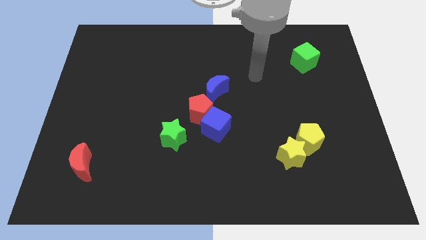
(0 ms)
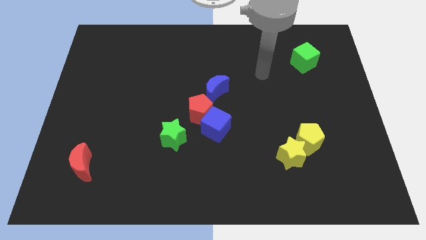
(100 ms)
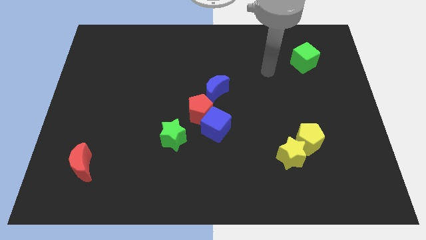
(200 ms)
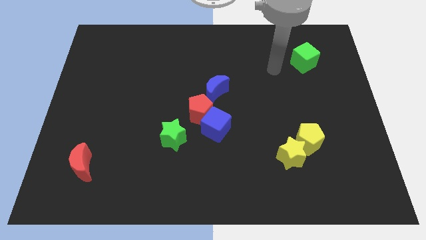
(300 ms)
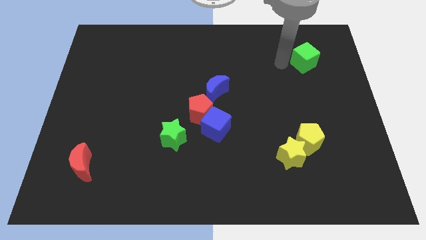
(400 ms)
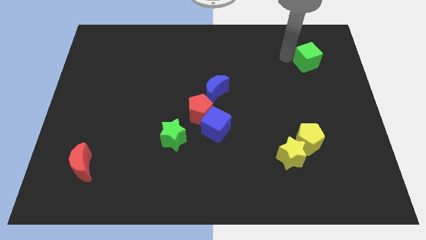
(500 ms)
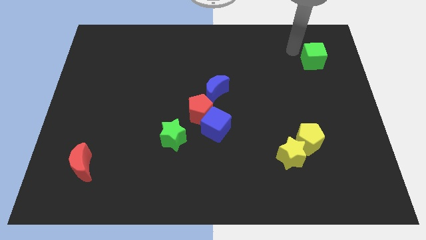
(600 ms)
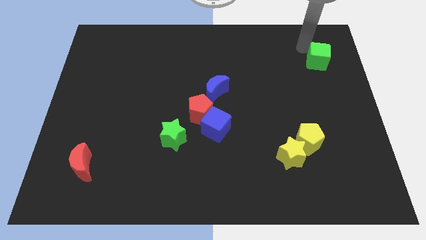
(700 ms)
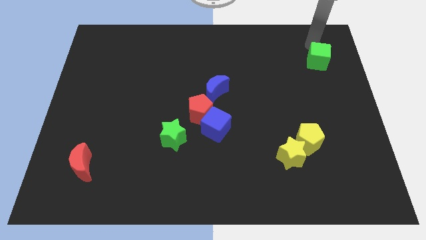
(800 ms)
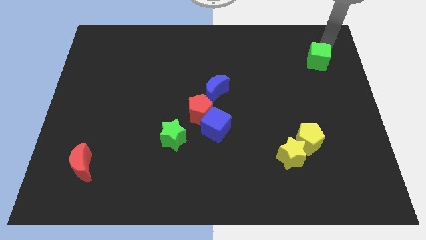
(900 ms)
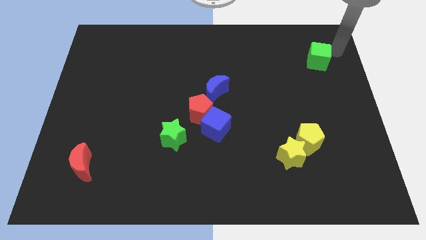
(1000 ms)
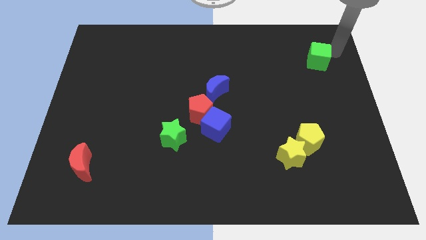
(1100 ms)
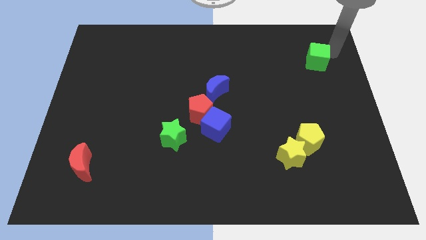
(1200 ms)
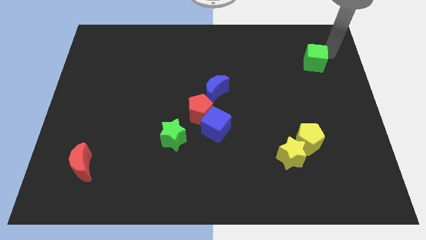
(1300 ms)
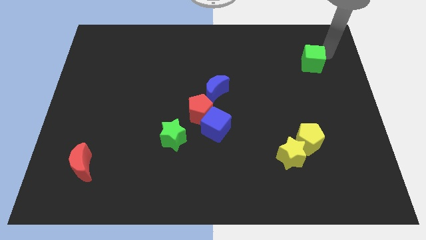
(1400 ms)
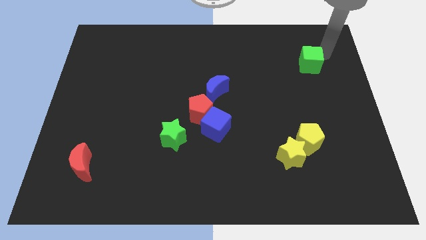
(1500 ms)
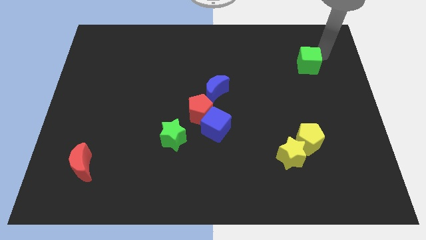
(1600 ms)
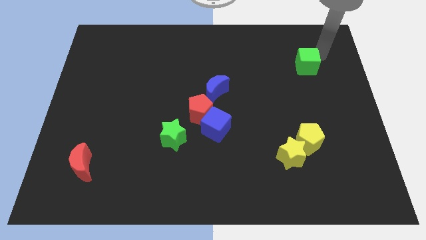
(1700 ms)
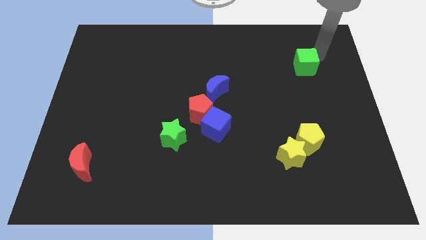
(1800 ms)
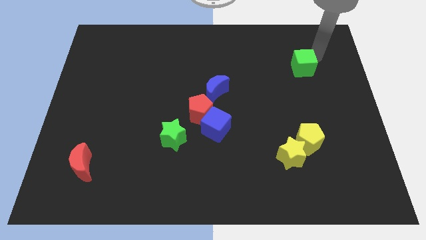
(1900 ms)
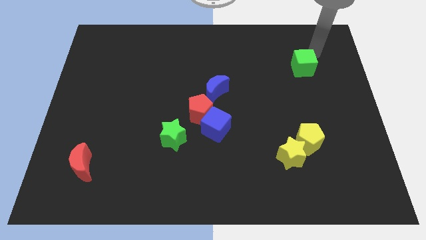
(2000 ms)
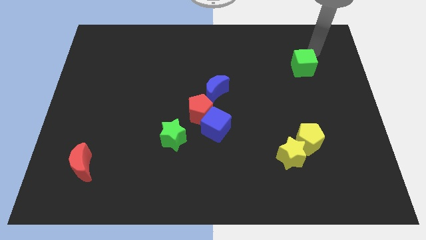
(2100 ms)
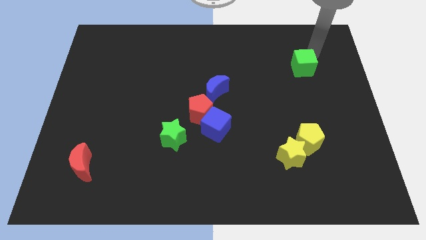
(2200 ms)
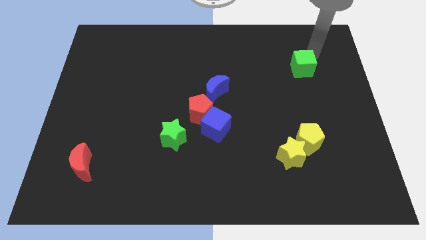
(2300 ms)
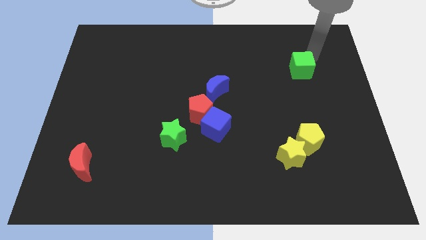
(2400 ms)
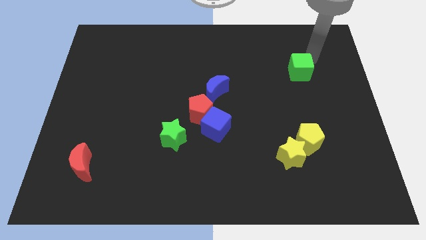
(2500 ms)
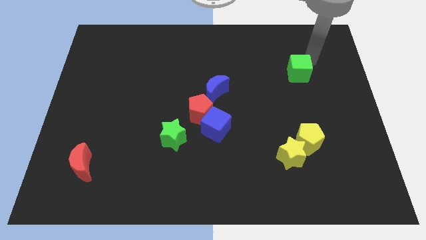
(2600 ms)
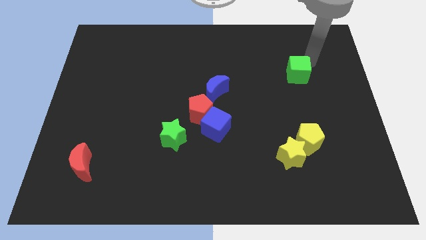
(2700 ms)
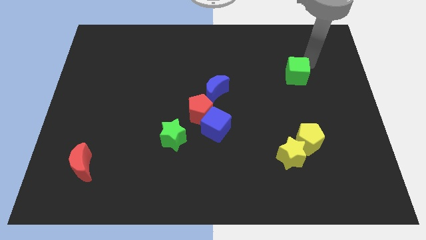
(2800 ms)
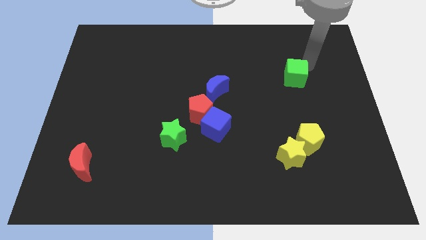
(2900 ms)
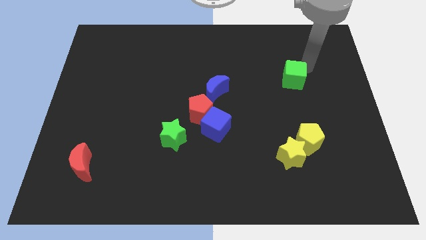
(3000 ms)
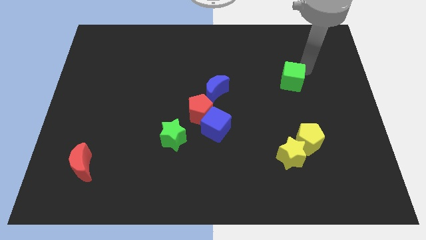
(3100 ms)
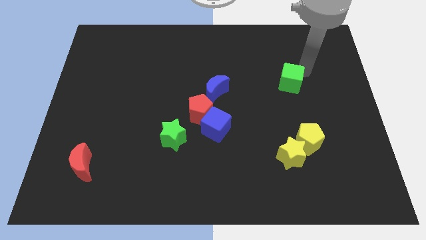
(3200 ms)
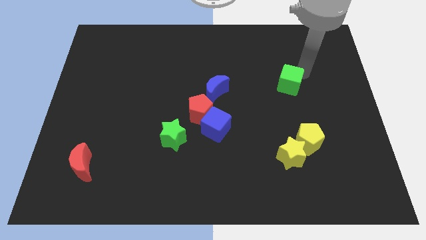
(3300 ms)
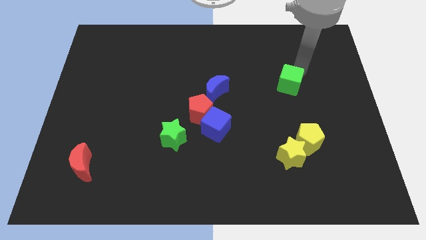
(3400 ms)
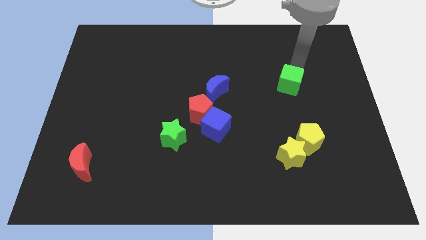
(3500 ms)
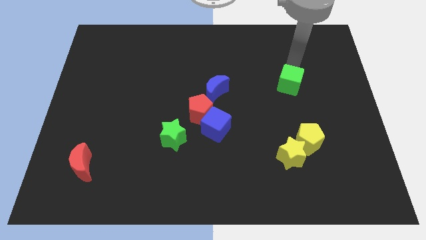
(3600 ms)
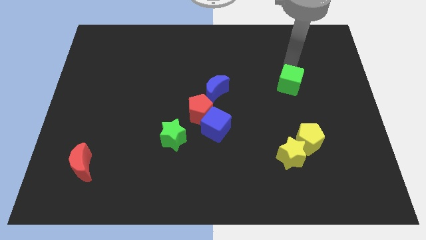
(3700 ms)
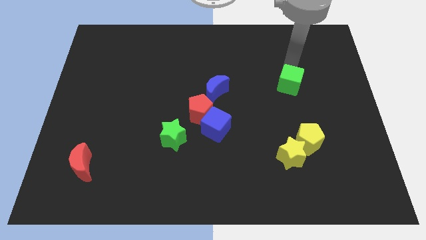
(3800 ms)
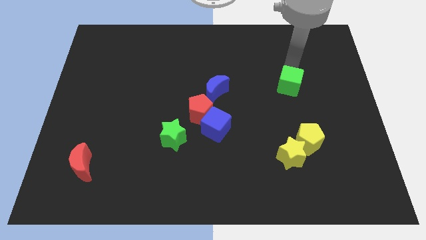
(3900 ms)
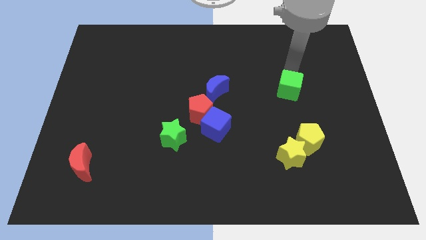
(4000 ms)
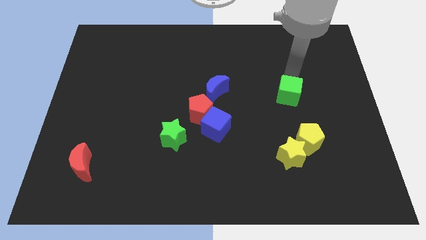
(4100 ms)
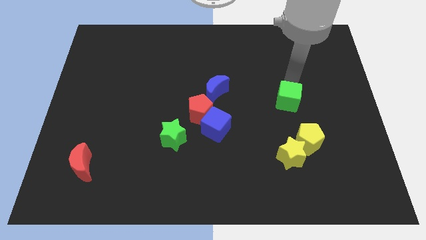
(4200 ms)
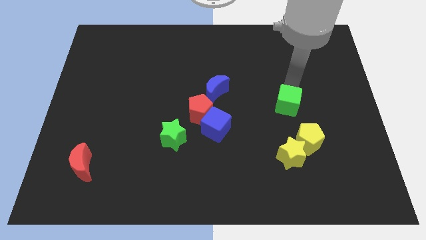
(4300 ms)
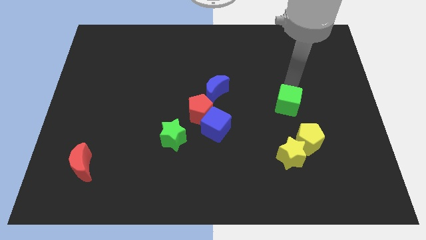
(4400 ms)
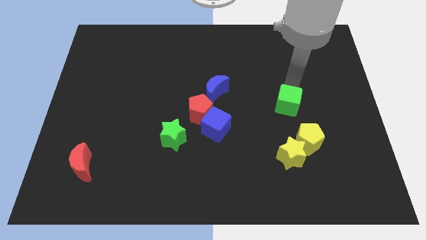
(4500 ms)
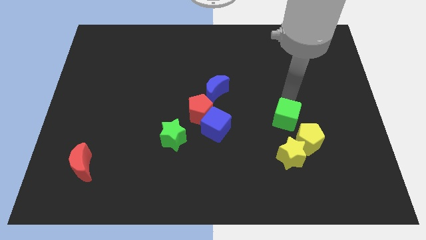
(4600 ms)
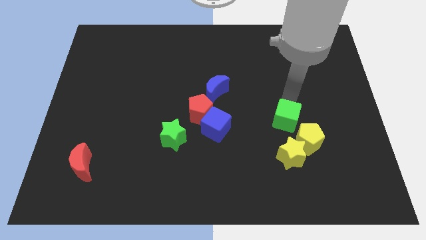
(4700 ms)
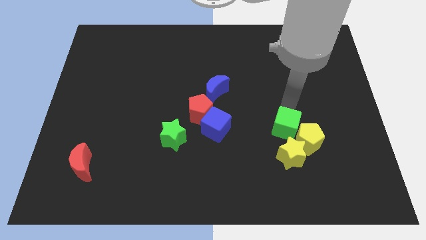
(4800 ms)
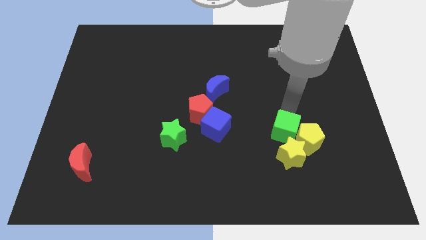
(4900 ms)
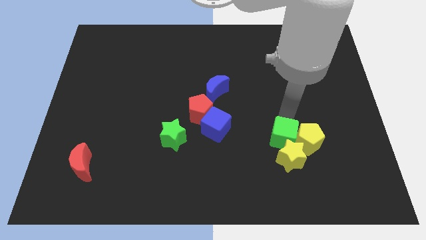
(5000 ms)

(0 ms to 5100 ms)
move the green cube to the yellow star
